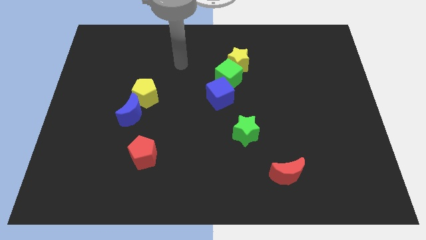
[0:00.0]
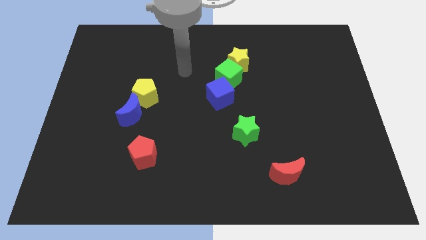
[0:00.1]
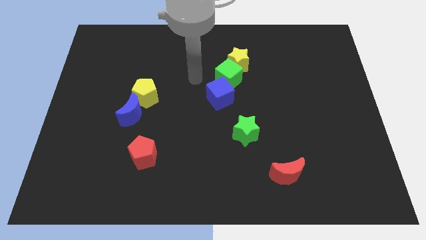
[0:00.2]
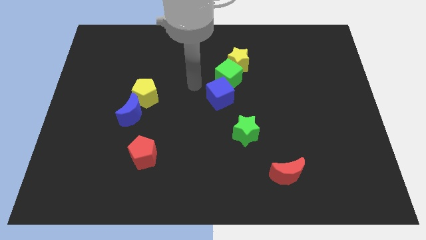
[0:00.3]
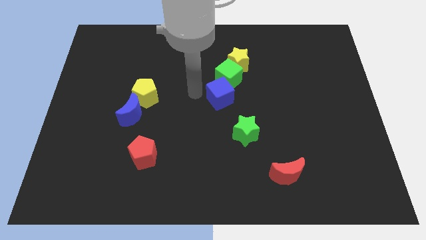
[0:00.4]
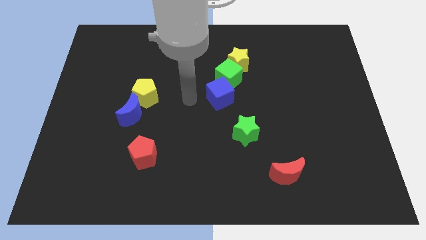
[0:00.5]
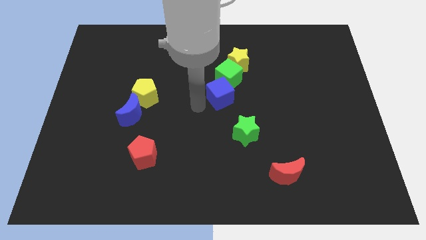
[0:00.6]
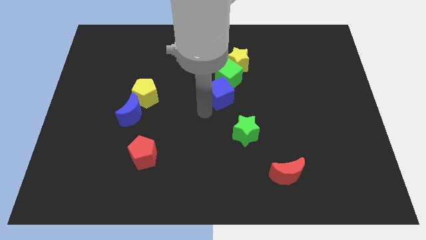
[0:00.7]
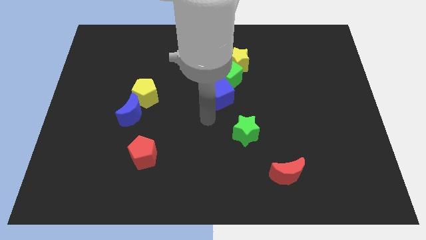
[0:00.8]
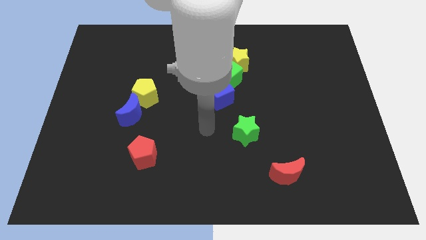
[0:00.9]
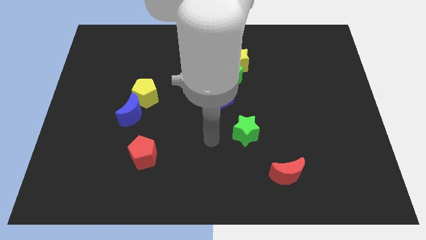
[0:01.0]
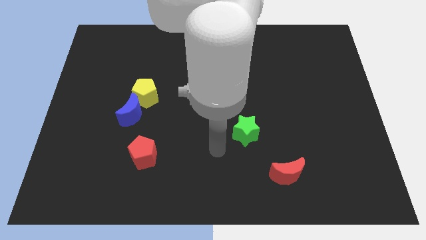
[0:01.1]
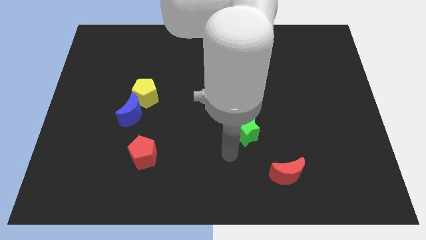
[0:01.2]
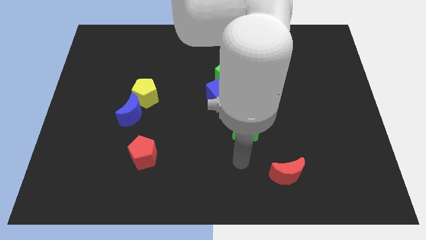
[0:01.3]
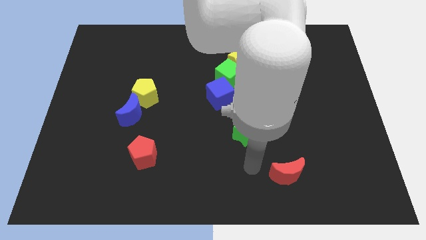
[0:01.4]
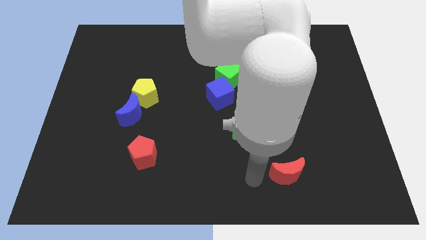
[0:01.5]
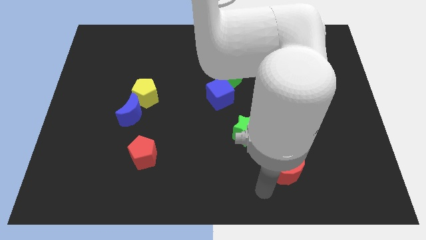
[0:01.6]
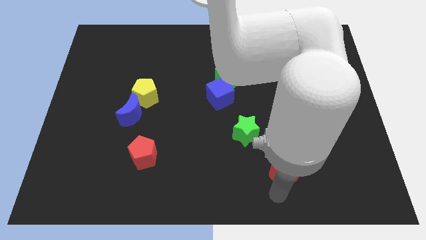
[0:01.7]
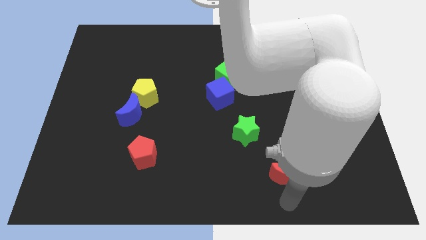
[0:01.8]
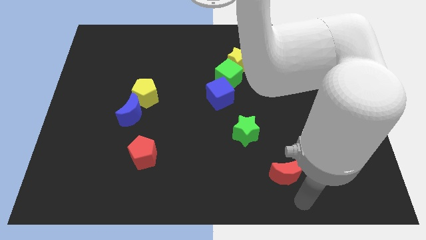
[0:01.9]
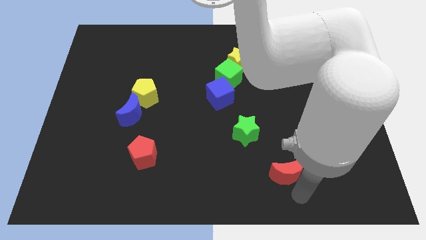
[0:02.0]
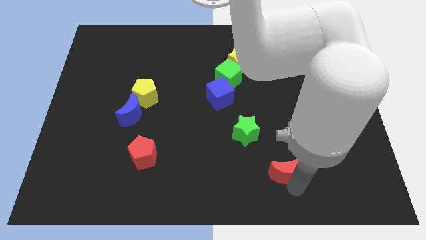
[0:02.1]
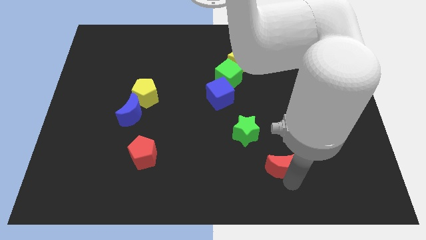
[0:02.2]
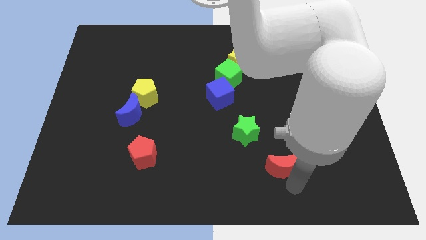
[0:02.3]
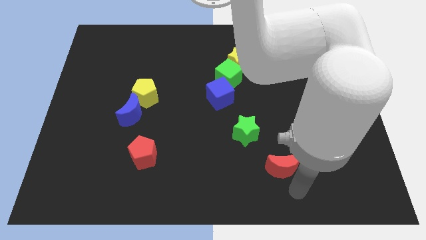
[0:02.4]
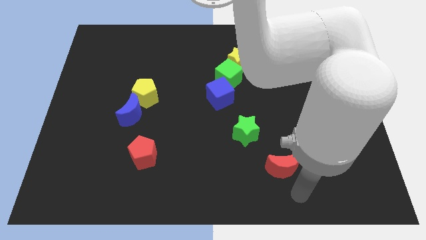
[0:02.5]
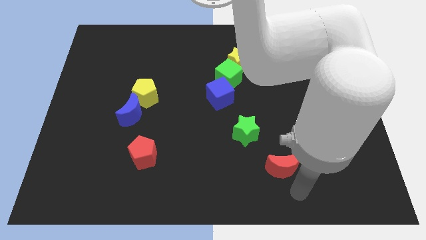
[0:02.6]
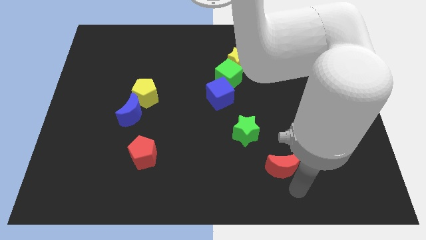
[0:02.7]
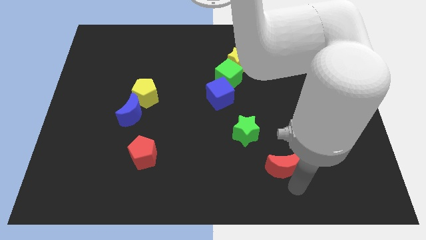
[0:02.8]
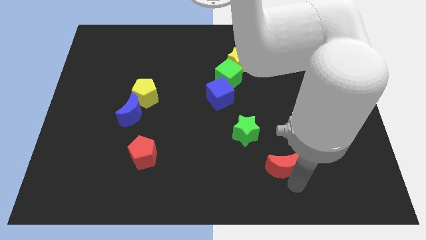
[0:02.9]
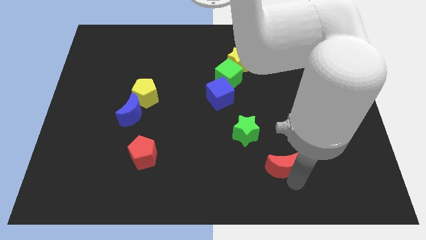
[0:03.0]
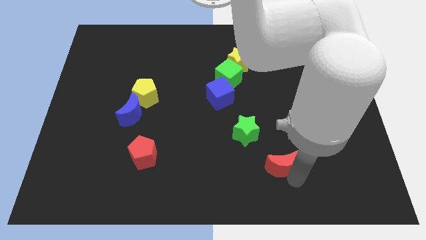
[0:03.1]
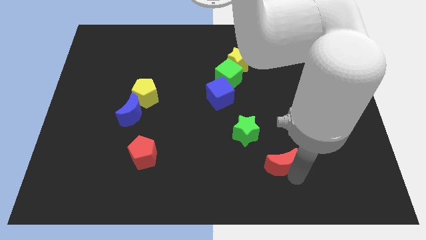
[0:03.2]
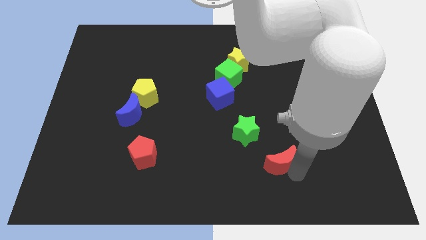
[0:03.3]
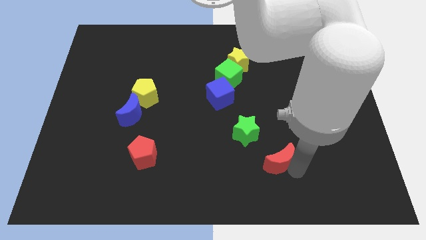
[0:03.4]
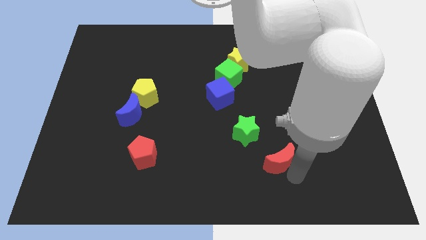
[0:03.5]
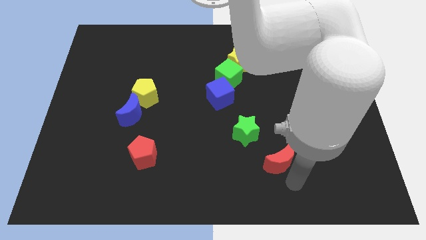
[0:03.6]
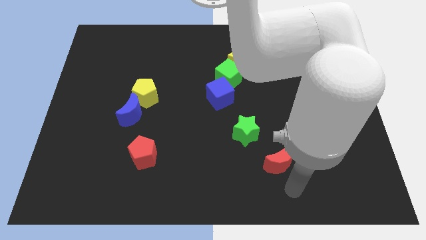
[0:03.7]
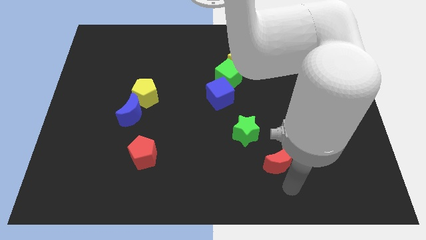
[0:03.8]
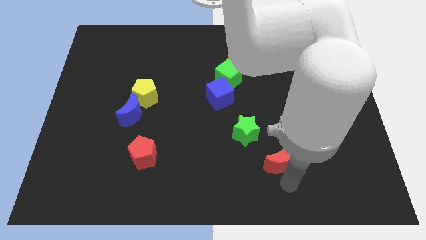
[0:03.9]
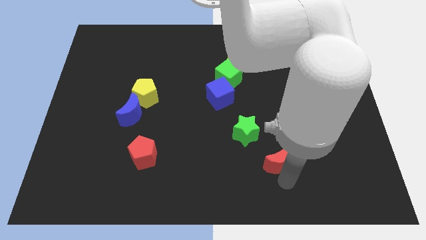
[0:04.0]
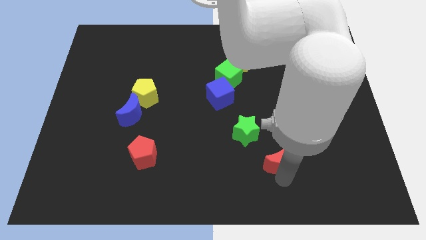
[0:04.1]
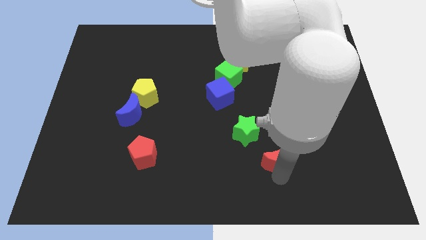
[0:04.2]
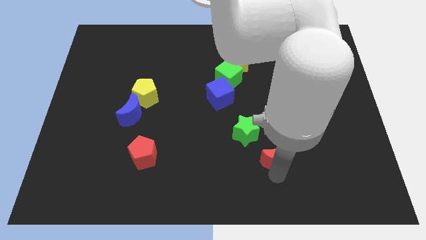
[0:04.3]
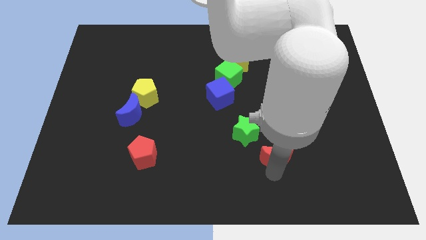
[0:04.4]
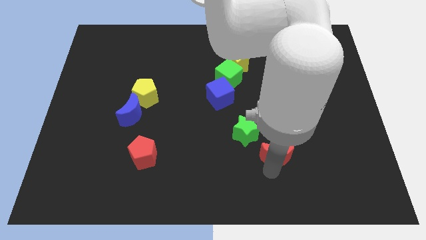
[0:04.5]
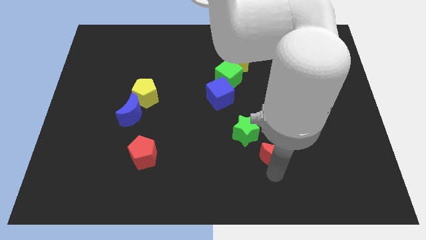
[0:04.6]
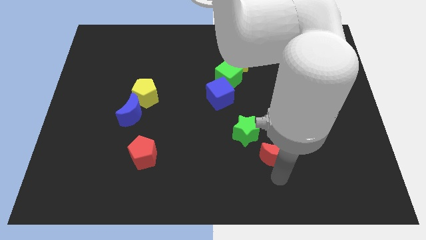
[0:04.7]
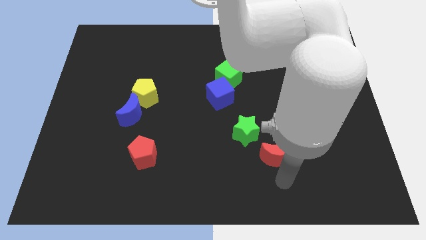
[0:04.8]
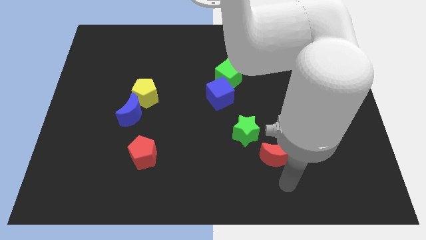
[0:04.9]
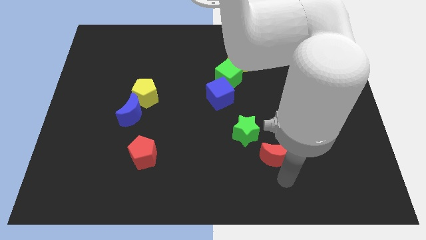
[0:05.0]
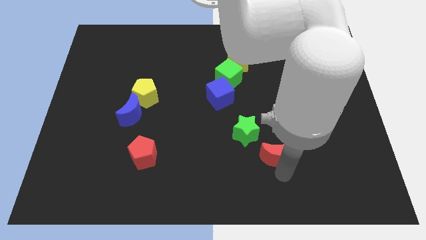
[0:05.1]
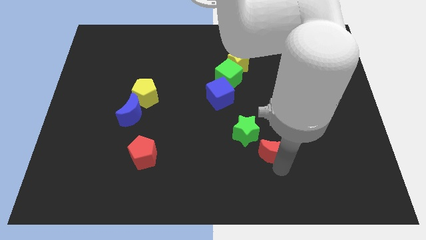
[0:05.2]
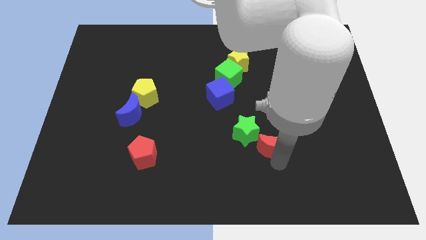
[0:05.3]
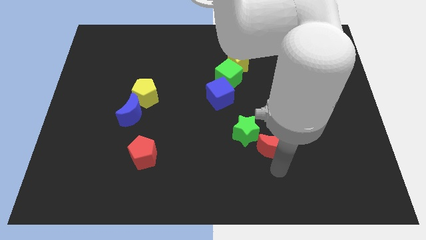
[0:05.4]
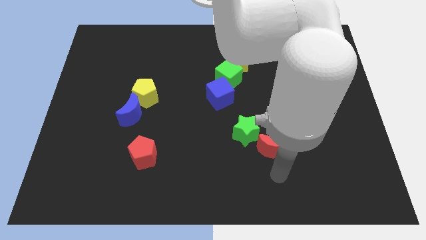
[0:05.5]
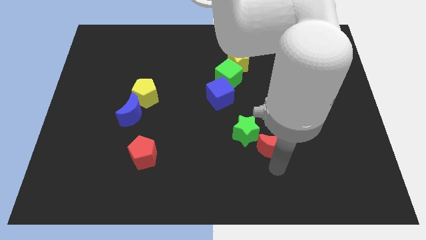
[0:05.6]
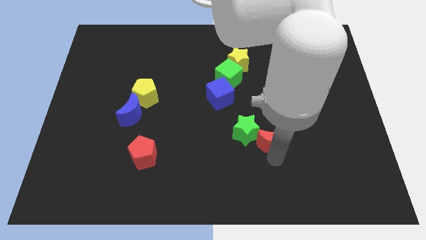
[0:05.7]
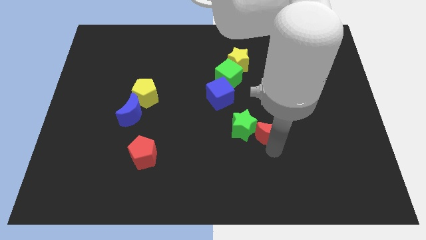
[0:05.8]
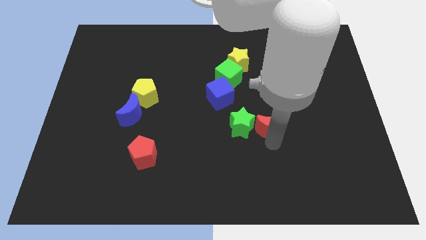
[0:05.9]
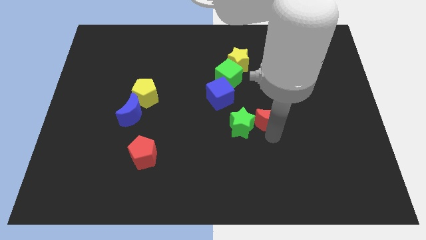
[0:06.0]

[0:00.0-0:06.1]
move the red moon to the top right of the green star

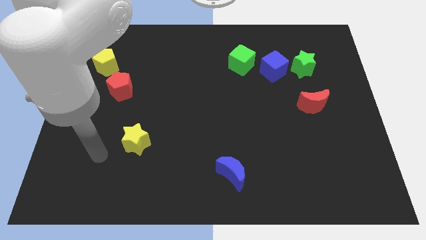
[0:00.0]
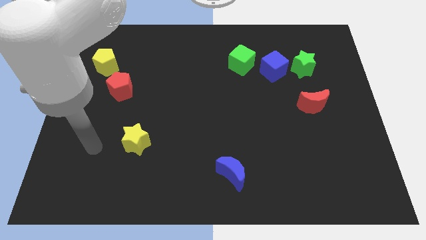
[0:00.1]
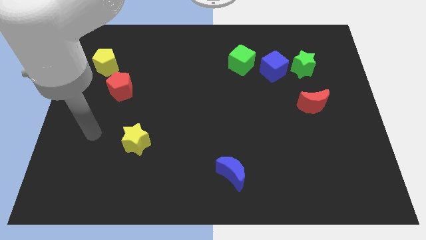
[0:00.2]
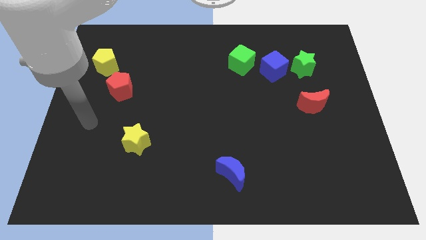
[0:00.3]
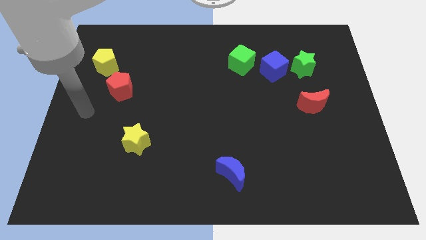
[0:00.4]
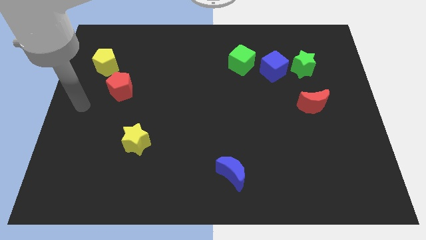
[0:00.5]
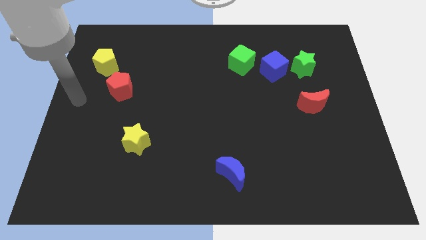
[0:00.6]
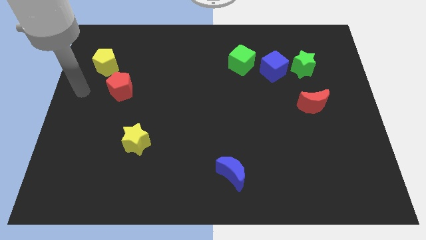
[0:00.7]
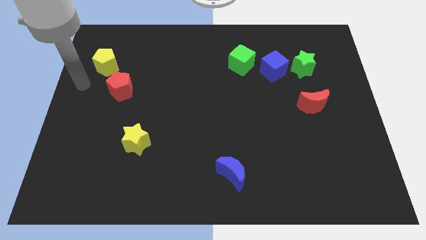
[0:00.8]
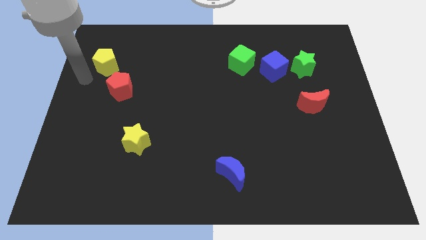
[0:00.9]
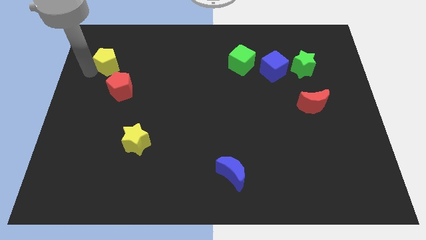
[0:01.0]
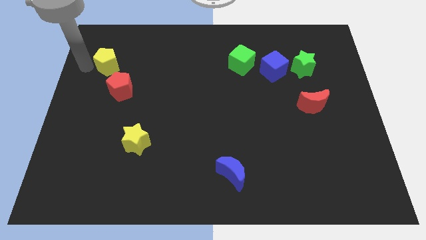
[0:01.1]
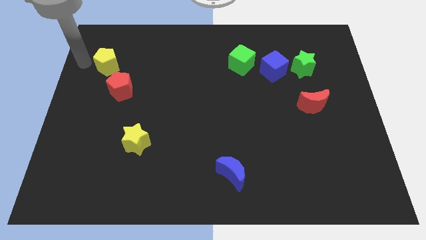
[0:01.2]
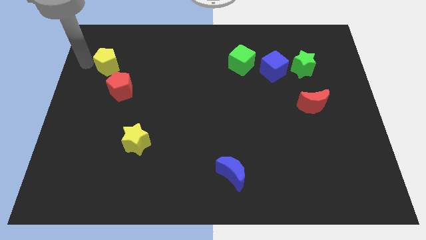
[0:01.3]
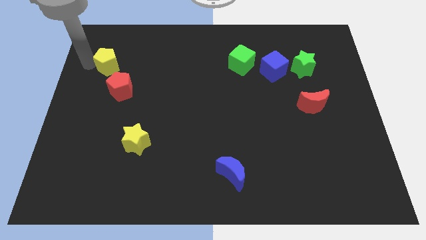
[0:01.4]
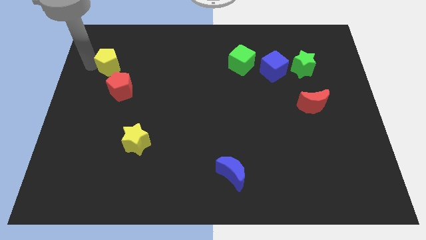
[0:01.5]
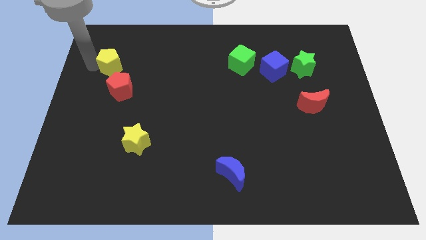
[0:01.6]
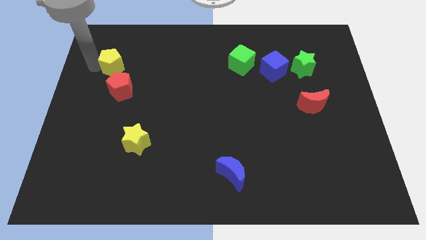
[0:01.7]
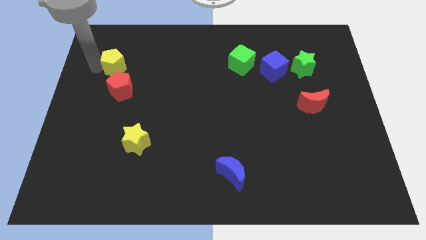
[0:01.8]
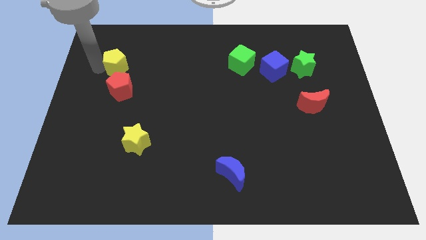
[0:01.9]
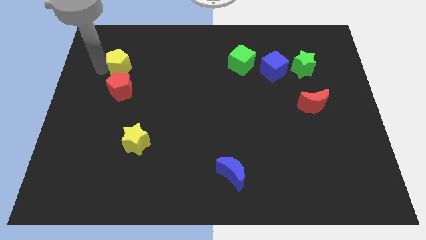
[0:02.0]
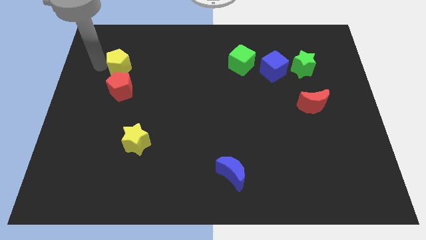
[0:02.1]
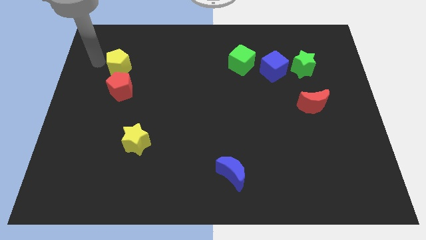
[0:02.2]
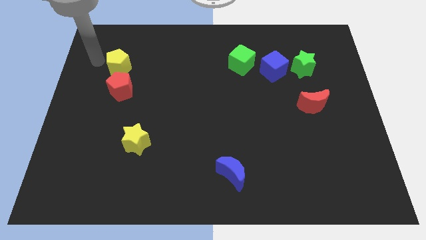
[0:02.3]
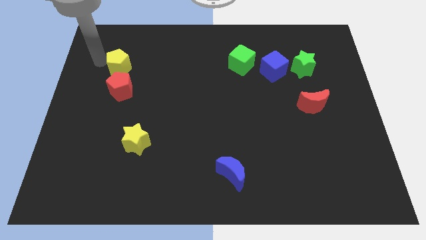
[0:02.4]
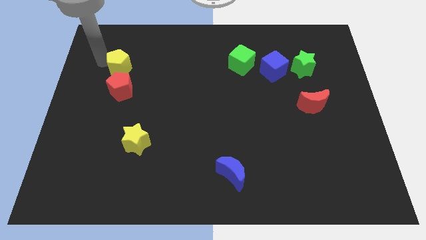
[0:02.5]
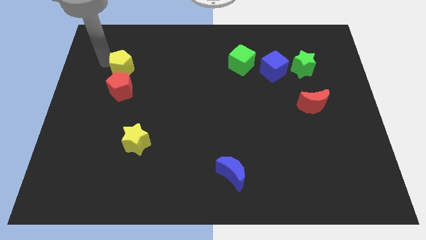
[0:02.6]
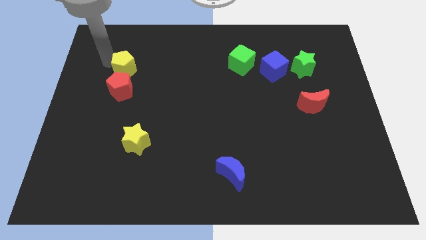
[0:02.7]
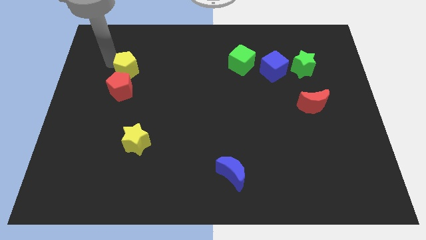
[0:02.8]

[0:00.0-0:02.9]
put the yellow pentagon to the top right side of the red pentagon
